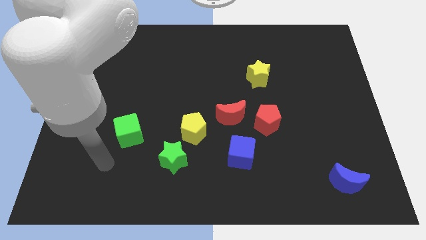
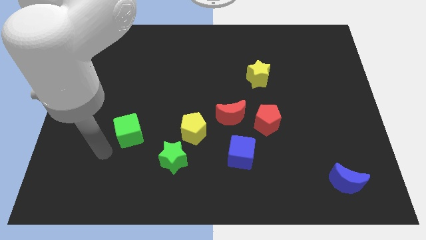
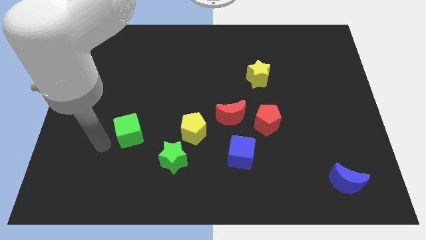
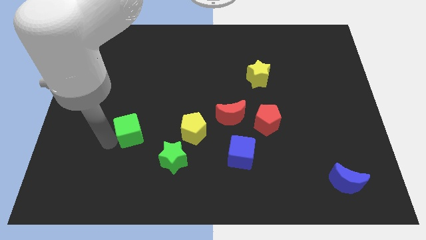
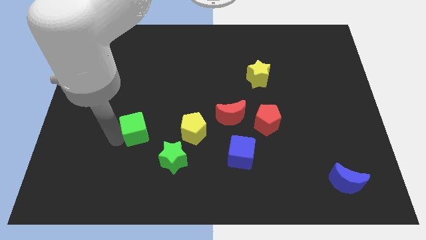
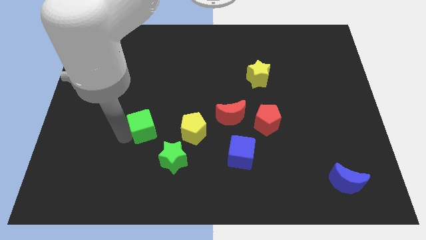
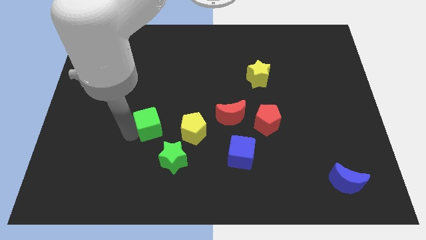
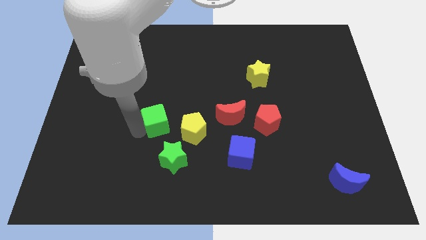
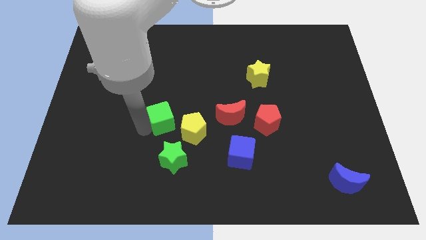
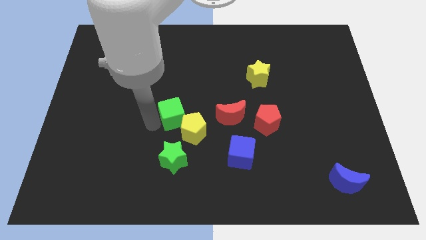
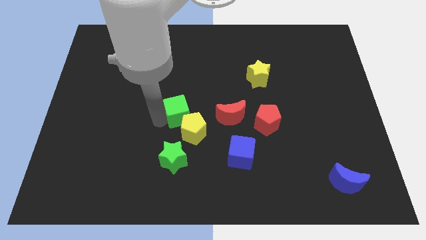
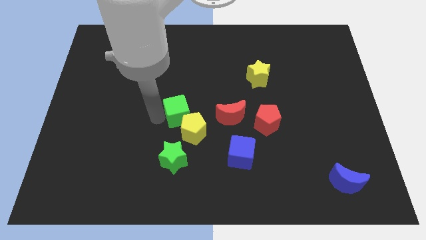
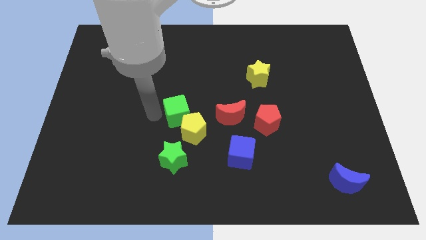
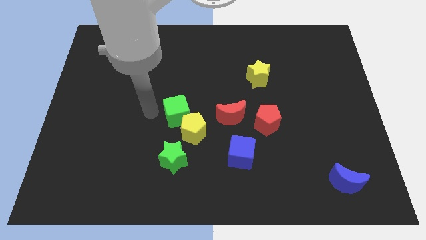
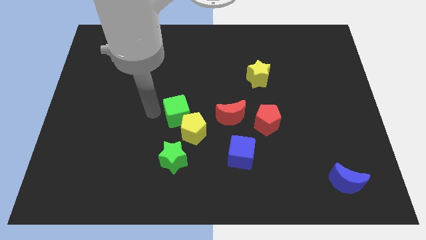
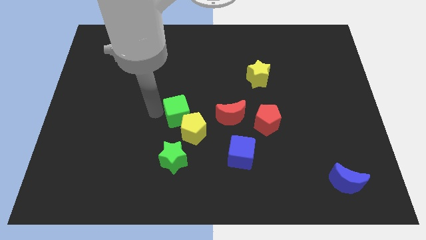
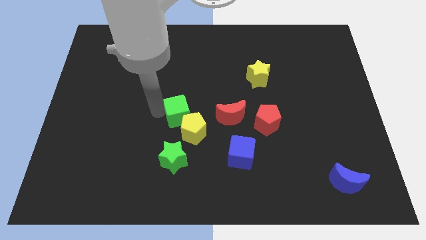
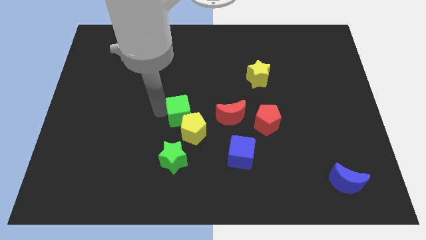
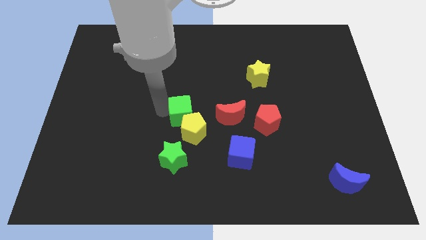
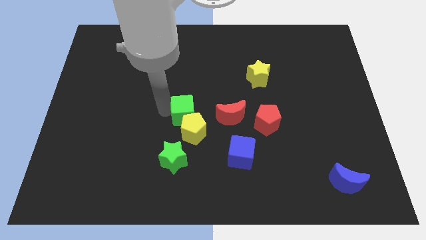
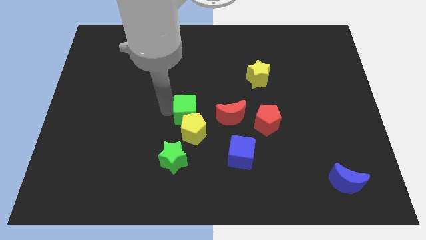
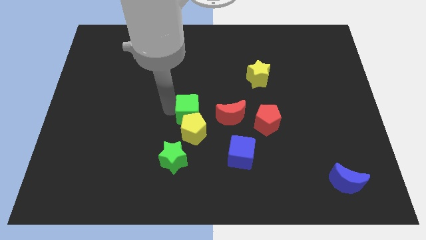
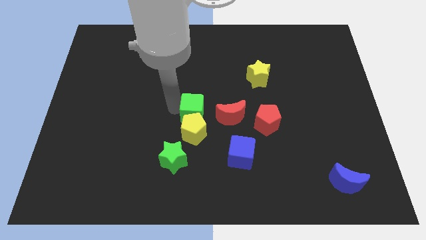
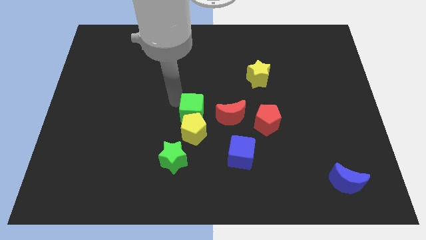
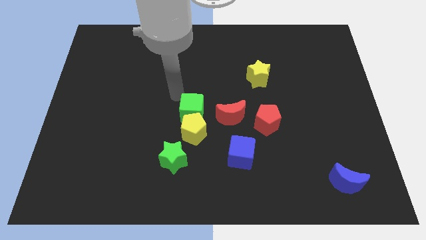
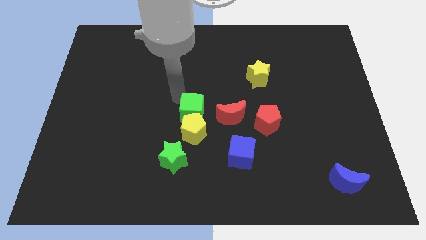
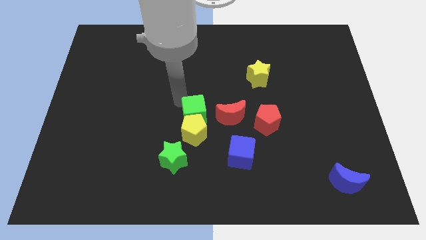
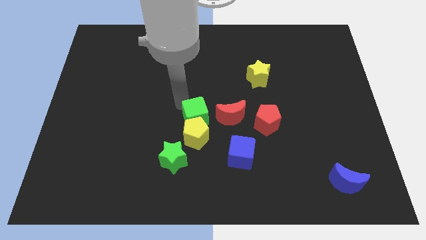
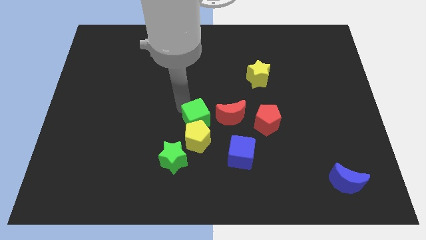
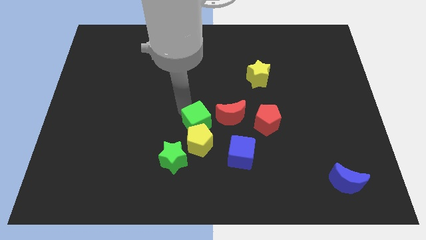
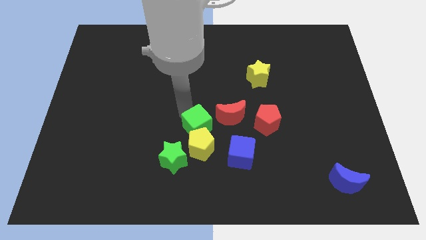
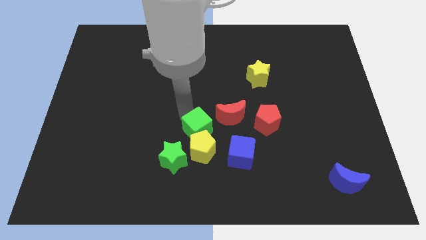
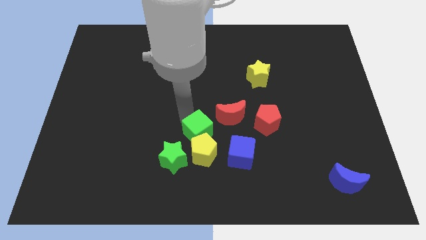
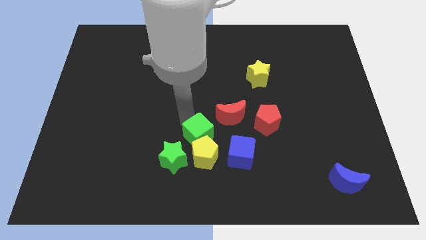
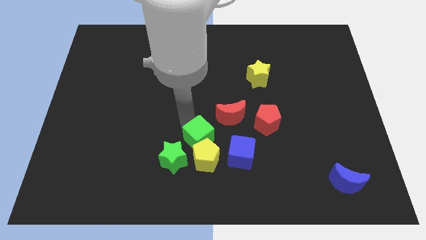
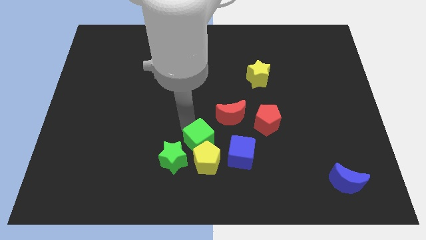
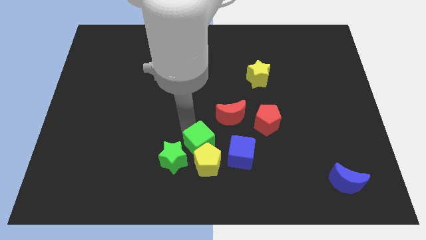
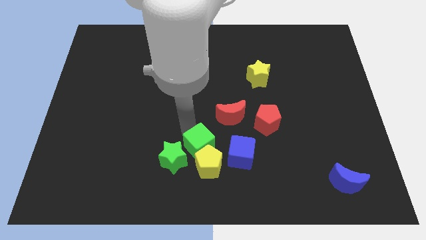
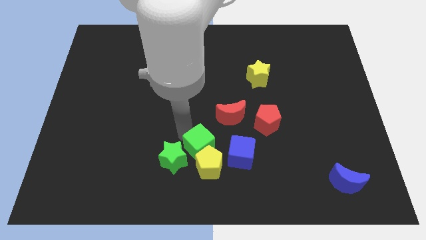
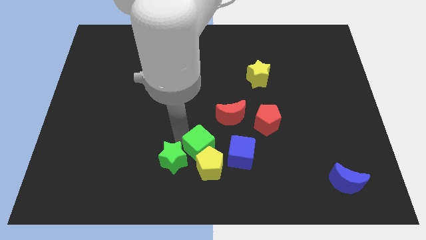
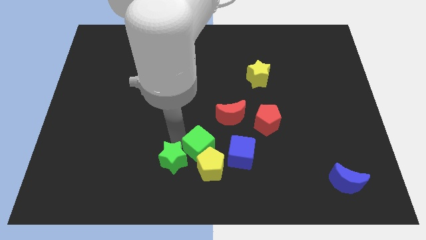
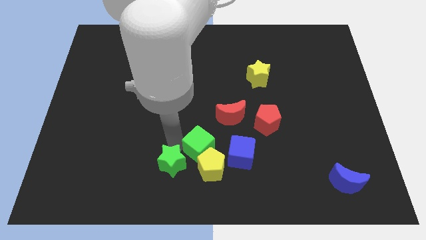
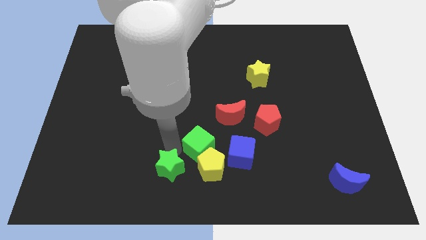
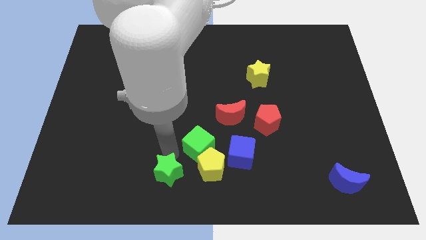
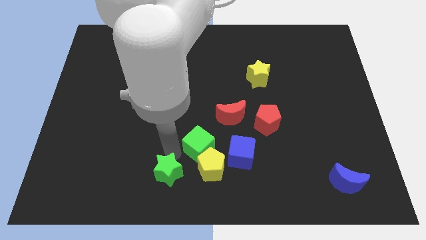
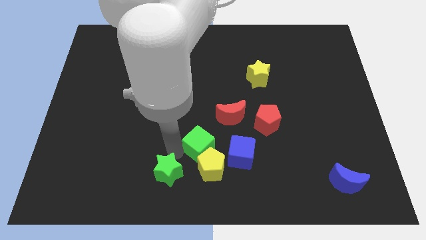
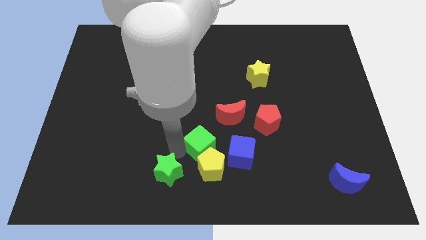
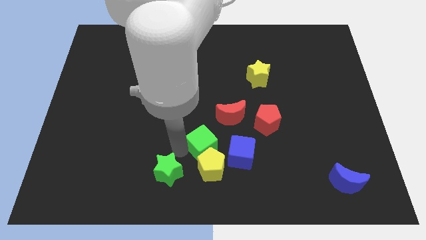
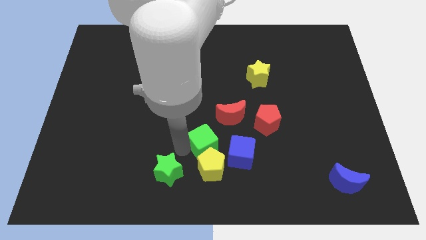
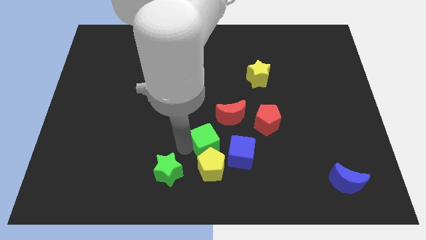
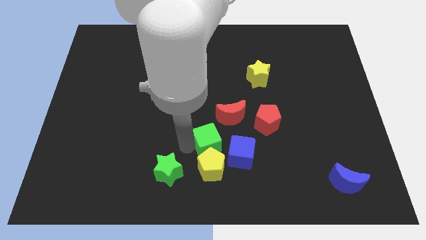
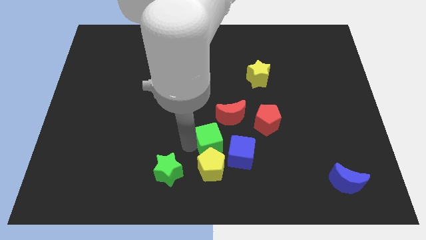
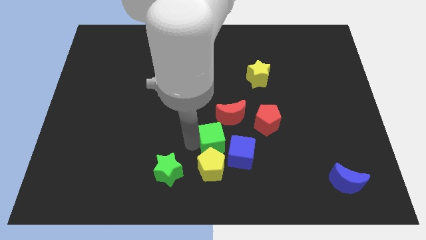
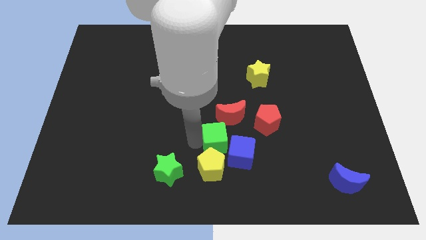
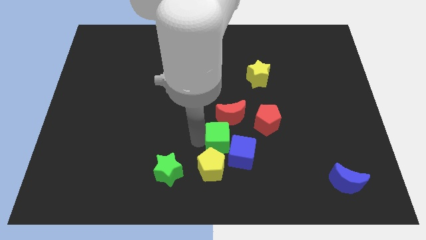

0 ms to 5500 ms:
move the green cube towards the blue cube

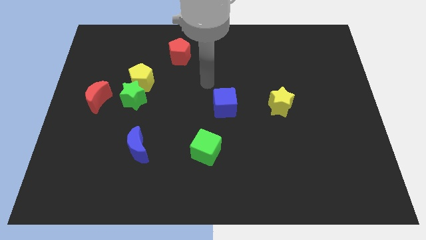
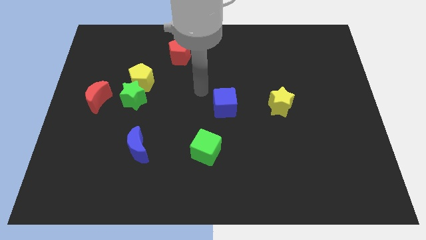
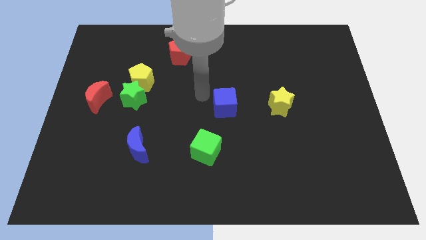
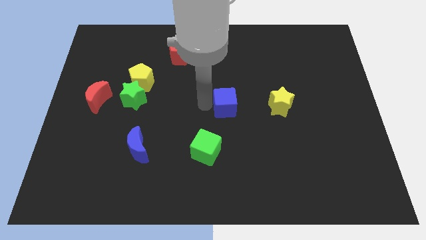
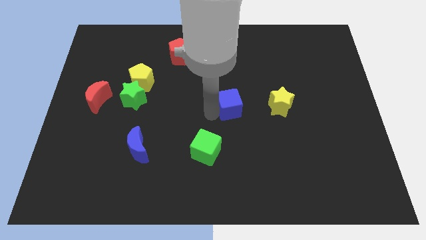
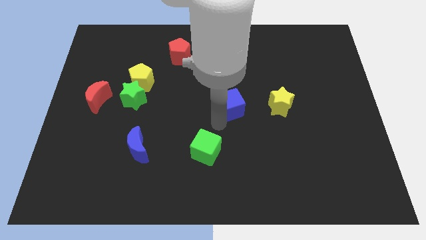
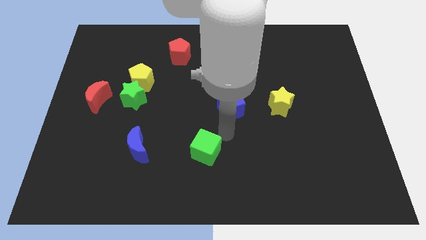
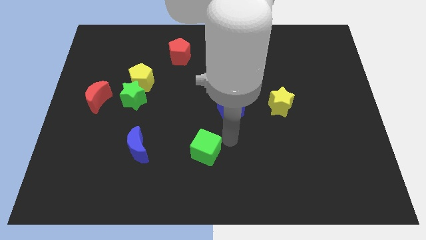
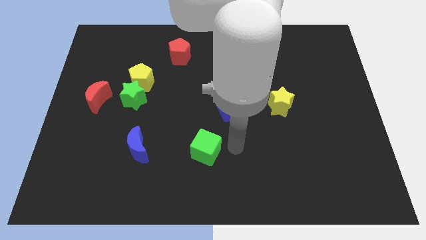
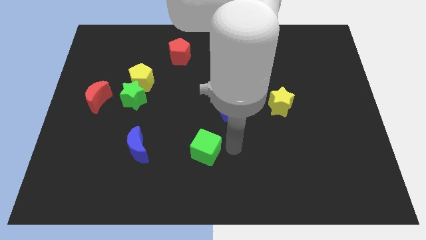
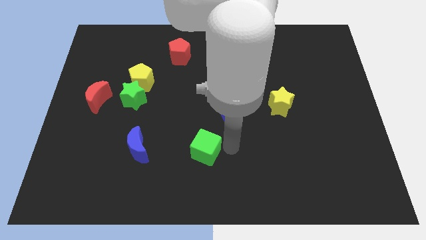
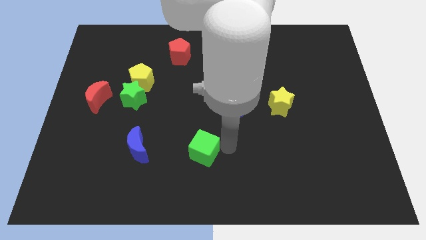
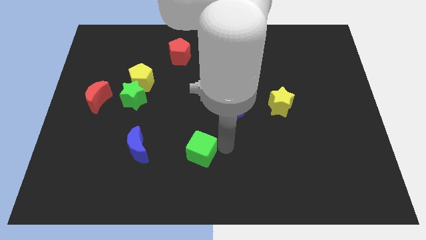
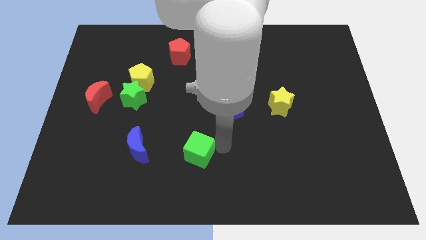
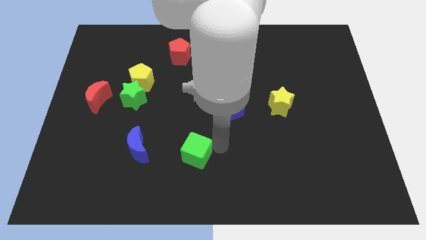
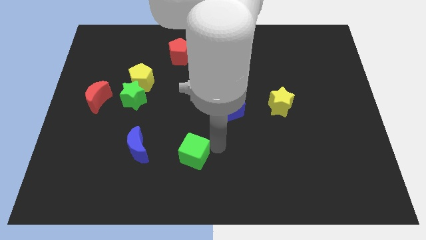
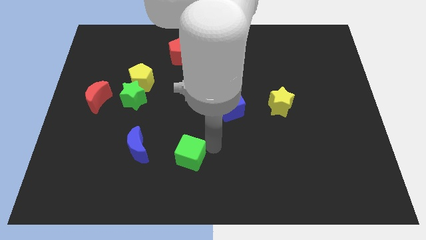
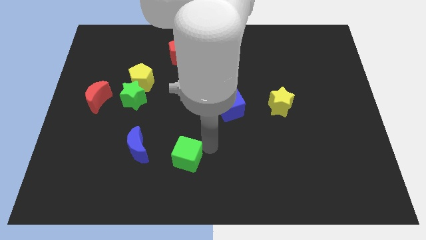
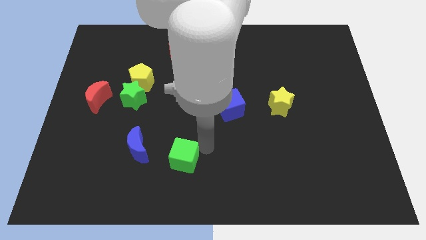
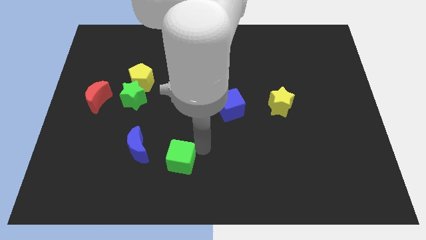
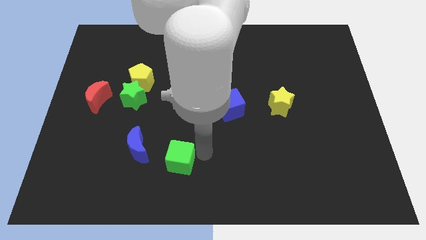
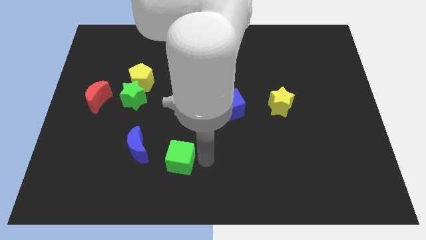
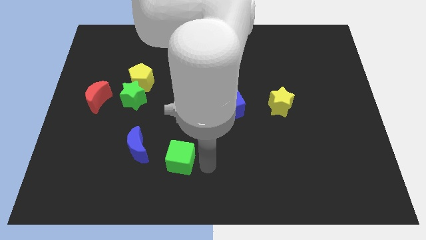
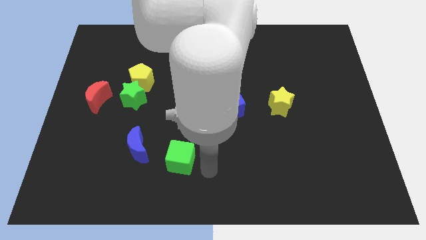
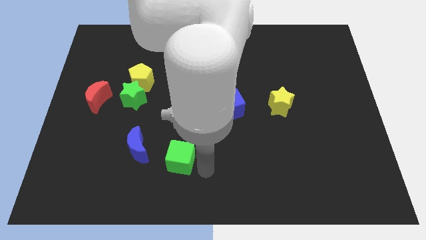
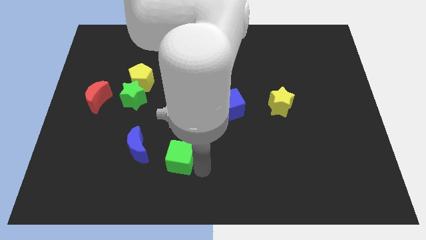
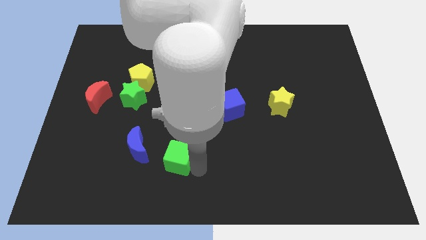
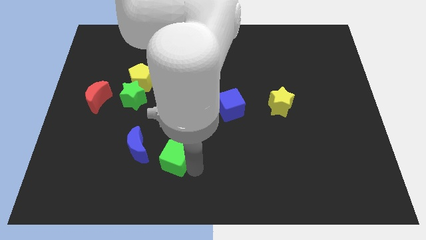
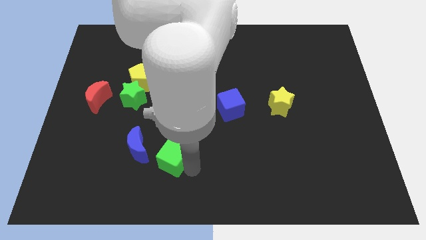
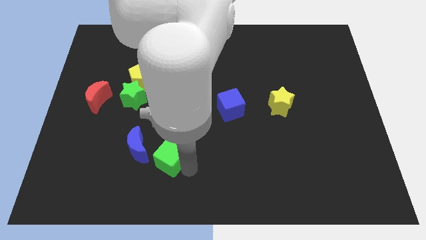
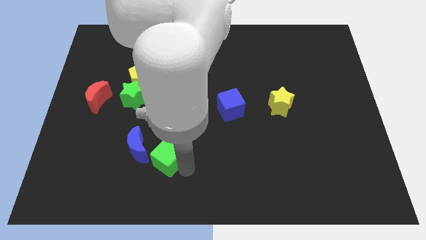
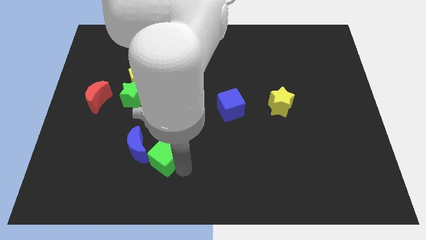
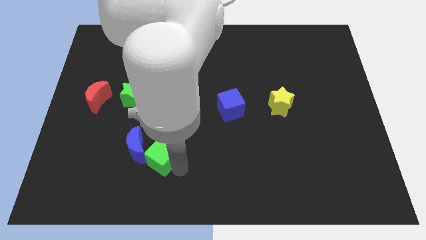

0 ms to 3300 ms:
slide the green cube close to the blue moon
